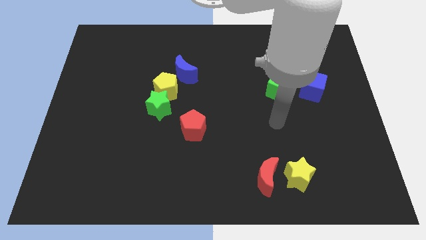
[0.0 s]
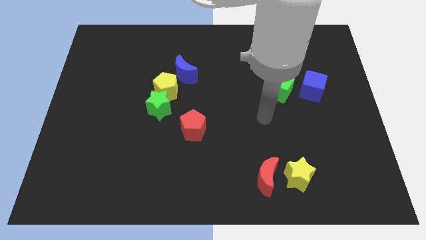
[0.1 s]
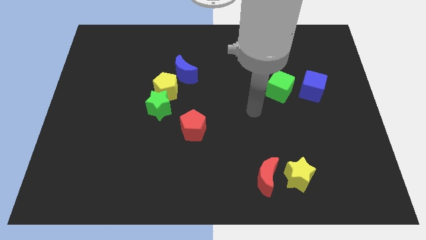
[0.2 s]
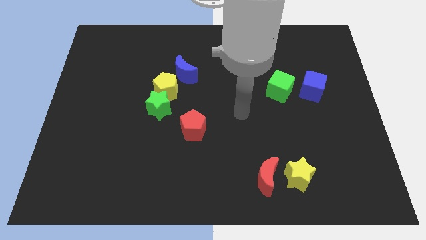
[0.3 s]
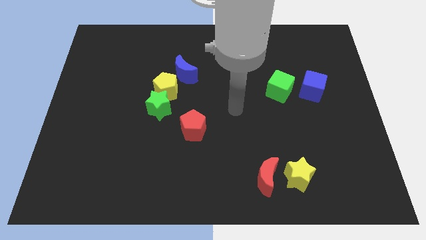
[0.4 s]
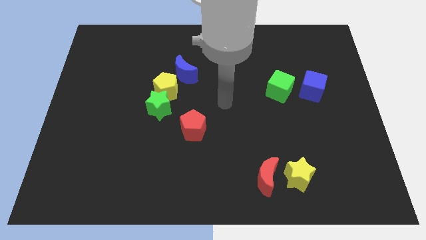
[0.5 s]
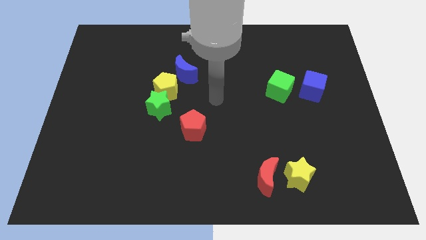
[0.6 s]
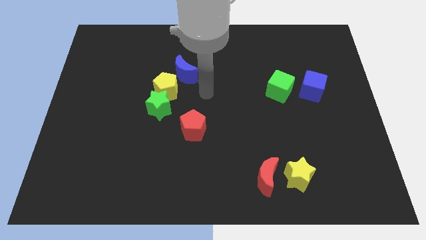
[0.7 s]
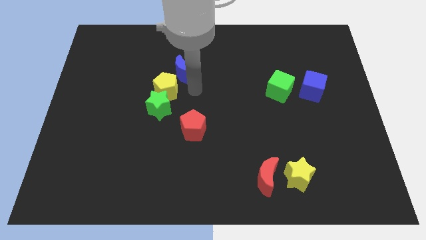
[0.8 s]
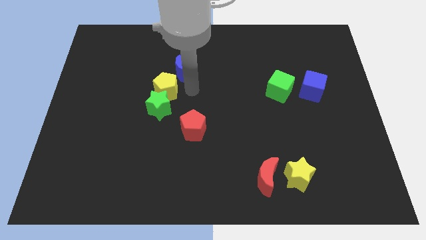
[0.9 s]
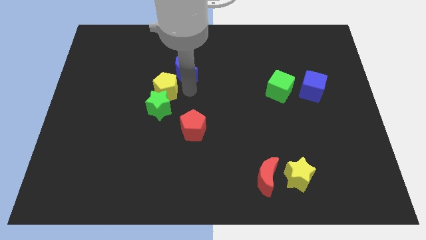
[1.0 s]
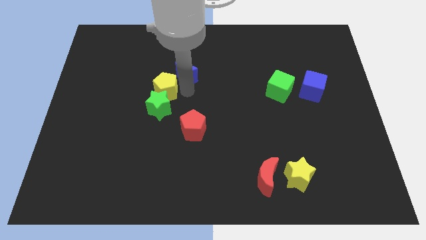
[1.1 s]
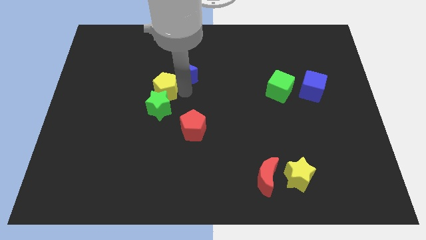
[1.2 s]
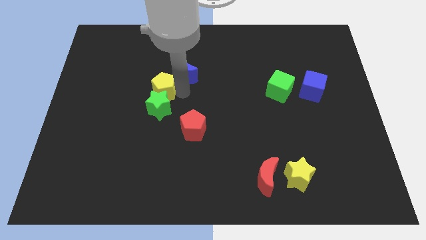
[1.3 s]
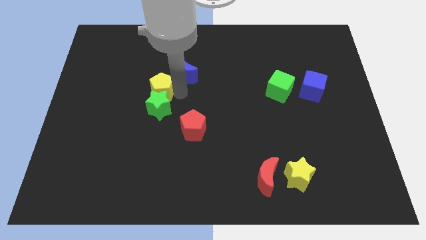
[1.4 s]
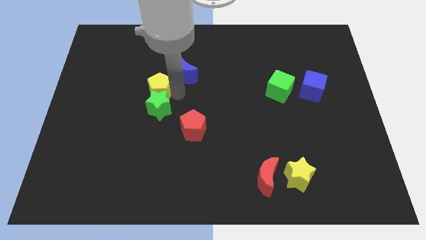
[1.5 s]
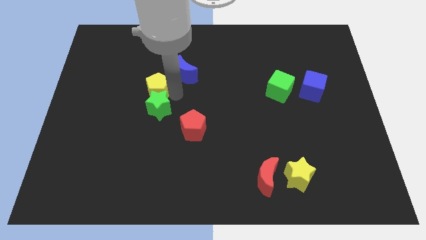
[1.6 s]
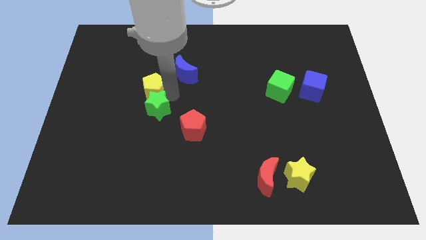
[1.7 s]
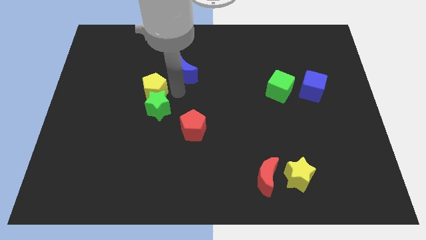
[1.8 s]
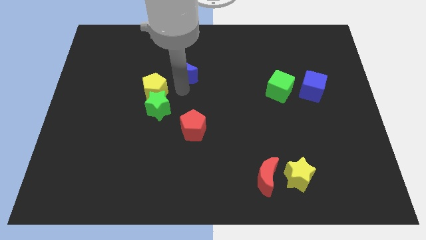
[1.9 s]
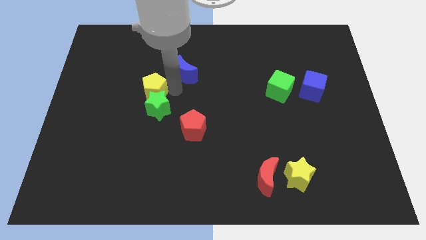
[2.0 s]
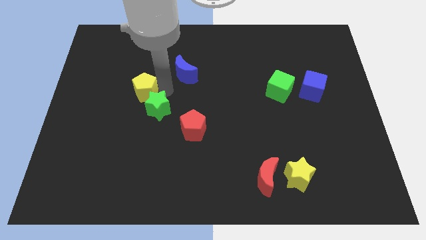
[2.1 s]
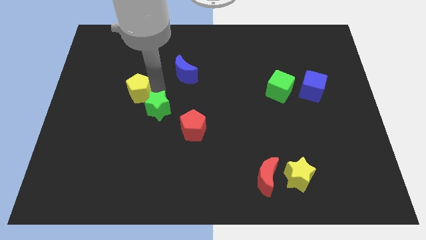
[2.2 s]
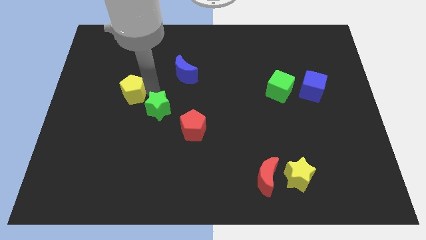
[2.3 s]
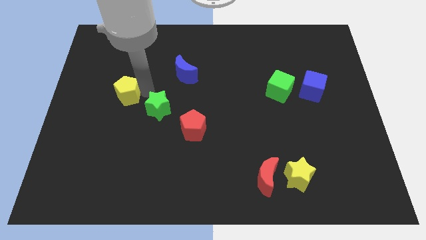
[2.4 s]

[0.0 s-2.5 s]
separate the yellow pentagon from the green star and blue moon

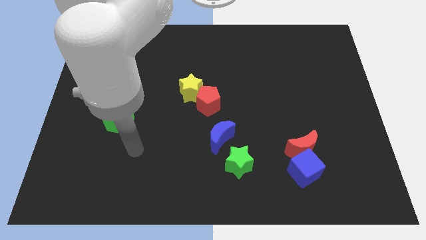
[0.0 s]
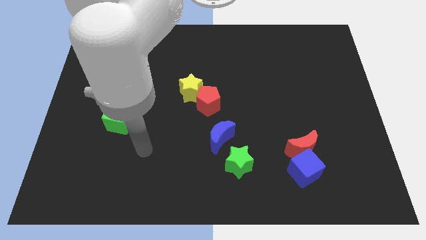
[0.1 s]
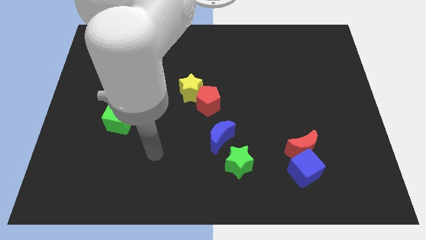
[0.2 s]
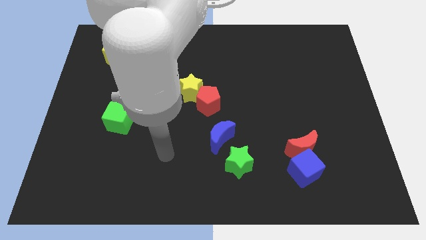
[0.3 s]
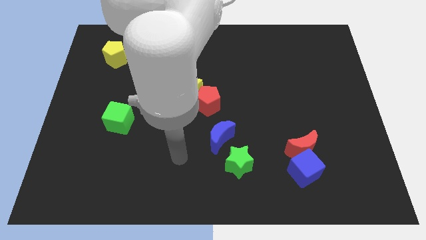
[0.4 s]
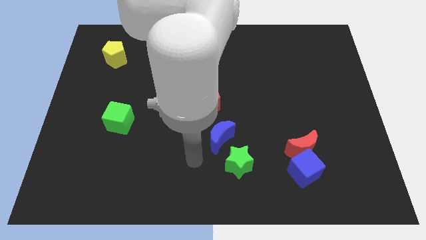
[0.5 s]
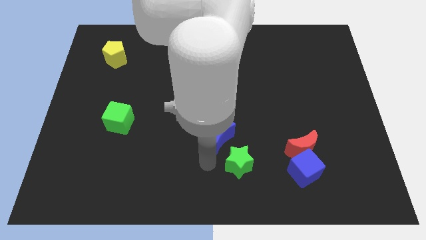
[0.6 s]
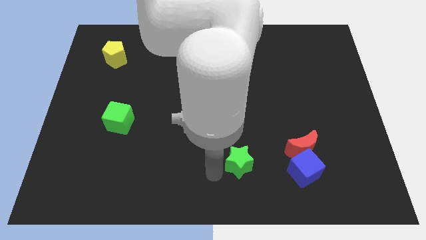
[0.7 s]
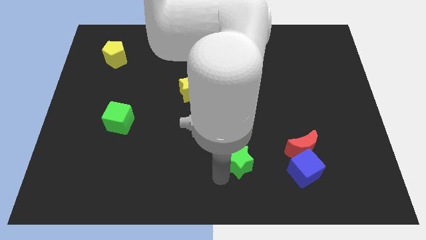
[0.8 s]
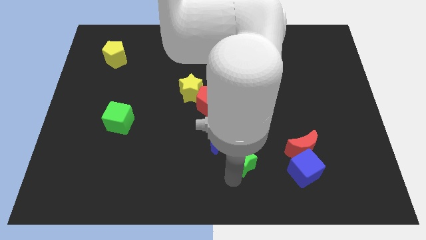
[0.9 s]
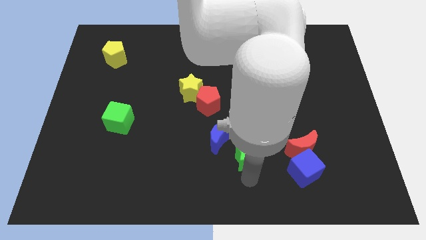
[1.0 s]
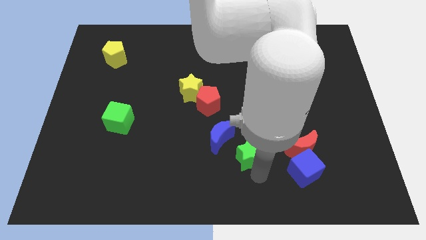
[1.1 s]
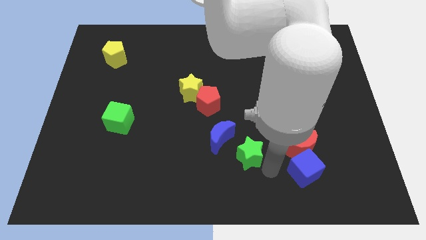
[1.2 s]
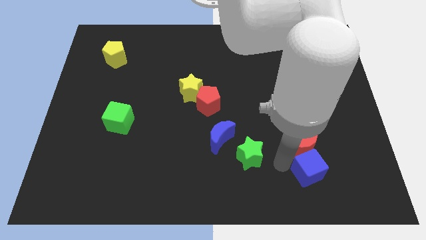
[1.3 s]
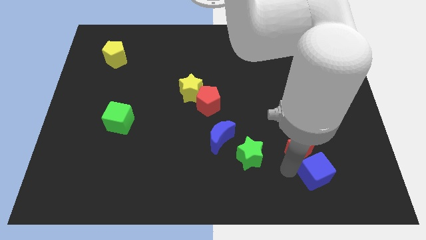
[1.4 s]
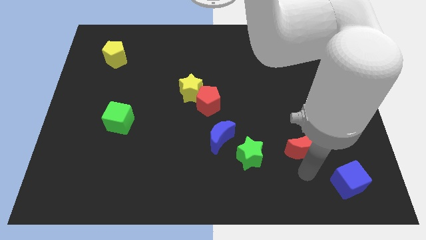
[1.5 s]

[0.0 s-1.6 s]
pull the red moon apart from the blue cube

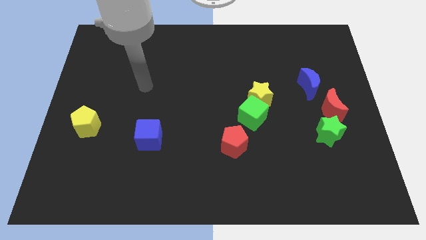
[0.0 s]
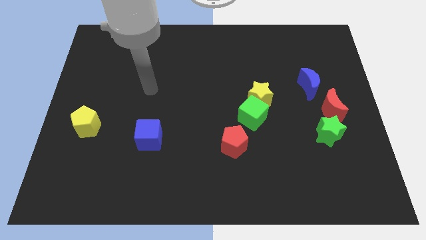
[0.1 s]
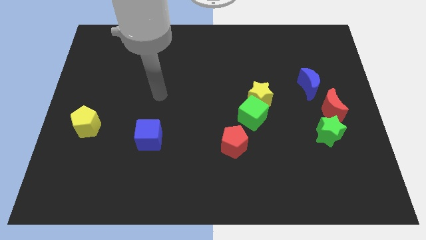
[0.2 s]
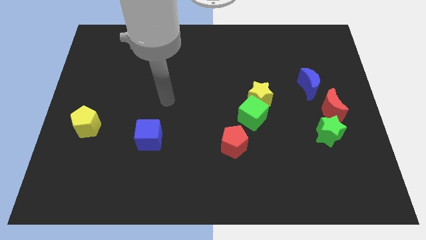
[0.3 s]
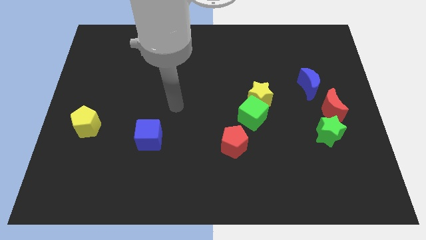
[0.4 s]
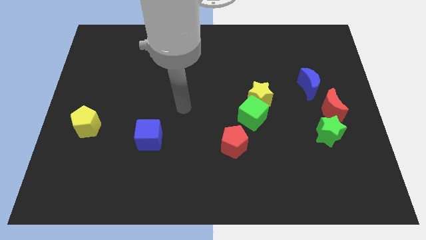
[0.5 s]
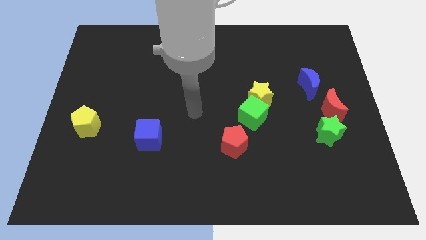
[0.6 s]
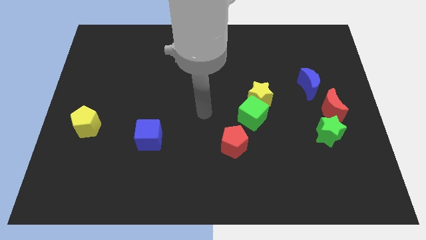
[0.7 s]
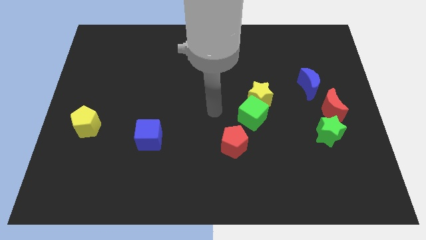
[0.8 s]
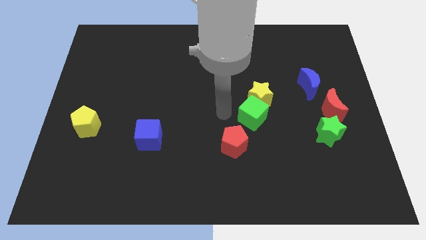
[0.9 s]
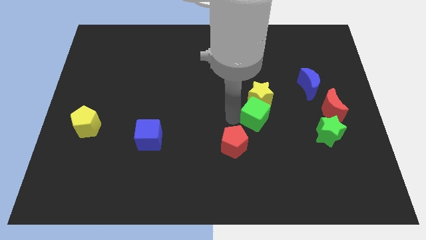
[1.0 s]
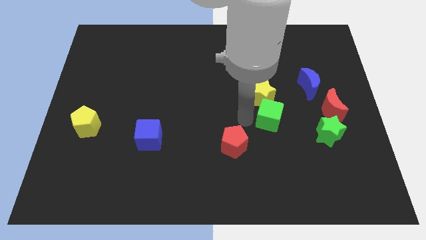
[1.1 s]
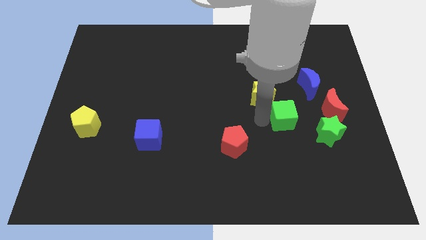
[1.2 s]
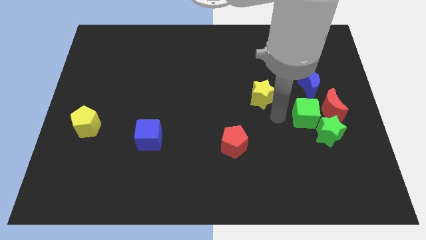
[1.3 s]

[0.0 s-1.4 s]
move the yellow star away from the green cube

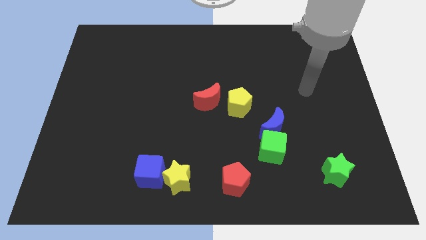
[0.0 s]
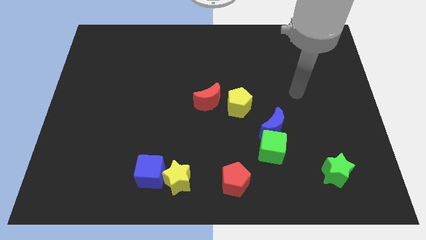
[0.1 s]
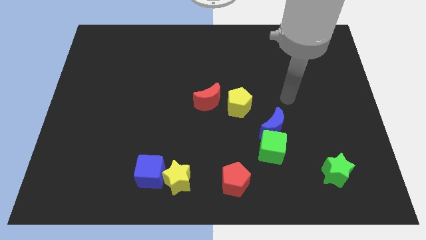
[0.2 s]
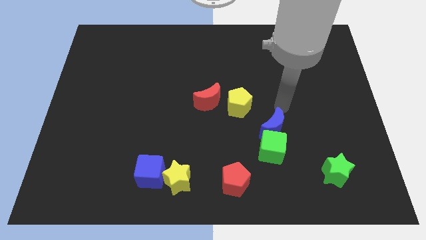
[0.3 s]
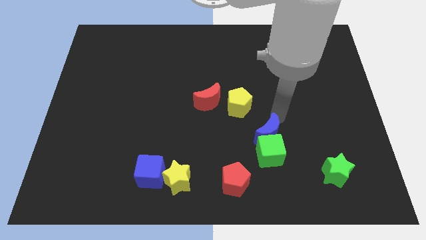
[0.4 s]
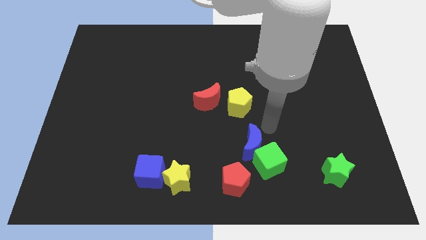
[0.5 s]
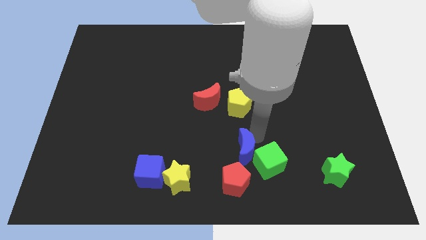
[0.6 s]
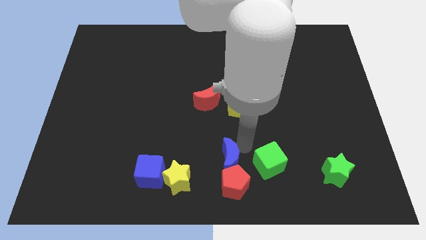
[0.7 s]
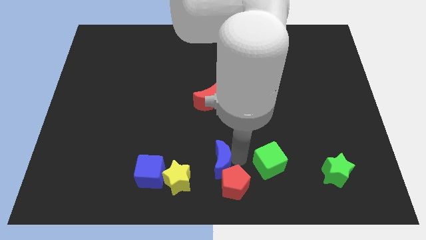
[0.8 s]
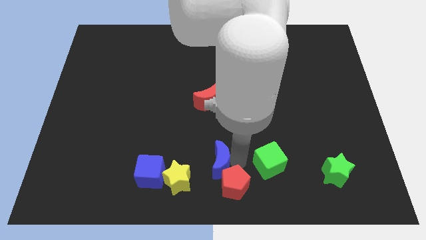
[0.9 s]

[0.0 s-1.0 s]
separate the green cube from the blue moon

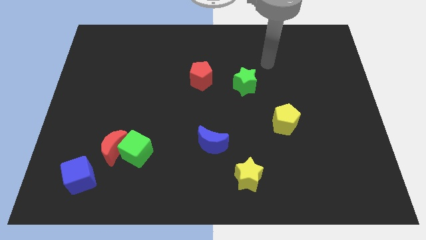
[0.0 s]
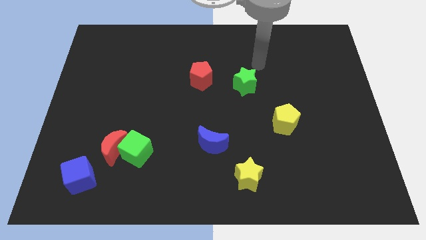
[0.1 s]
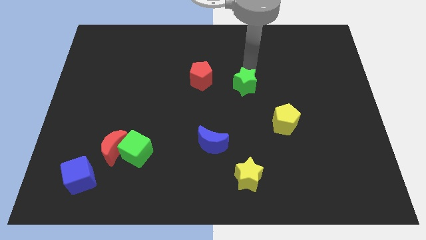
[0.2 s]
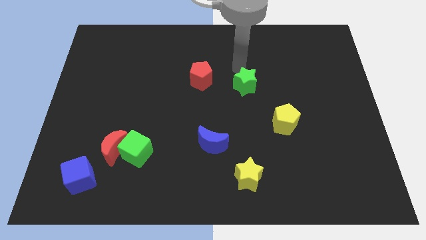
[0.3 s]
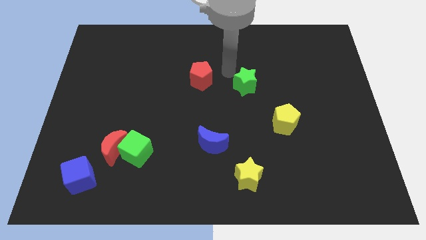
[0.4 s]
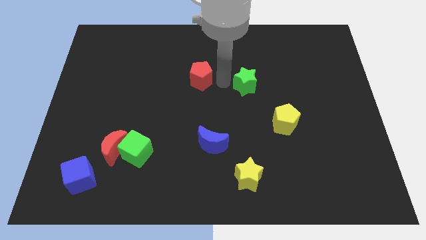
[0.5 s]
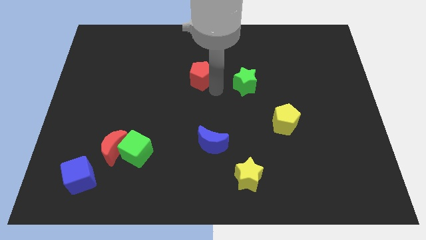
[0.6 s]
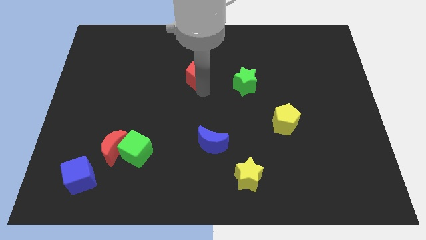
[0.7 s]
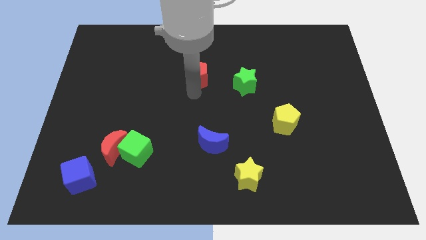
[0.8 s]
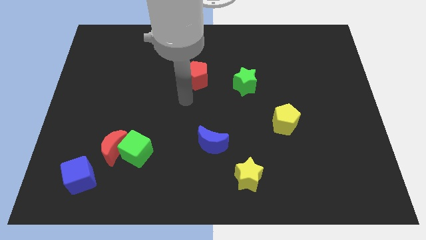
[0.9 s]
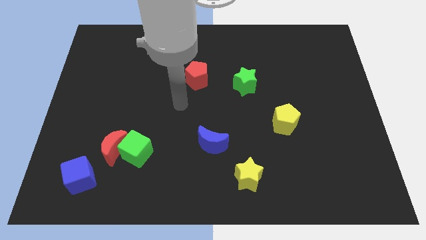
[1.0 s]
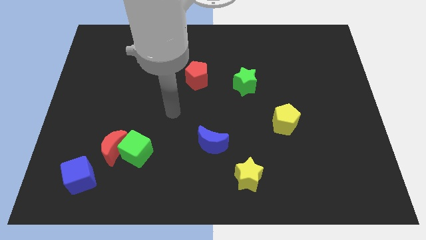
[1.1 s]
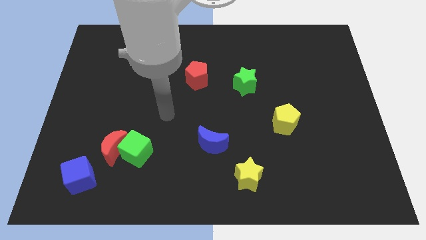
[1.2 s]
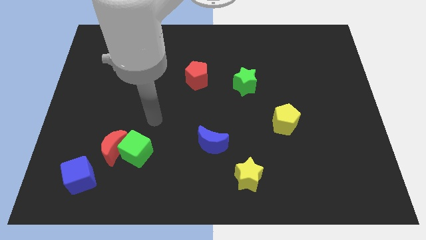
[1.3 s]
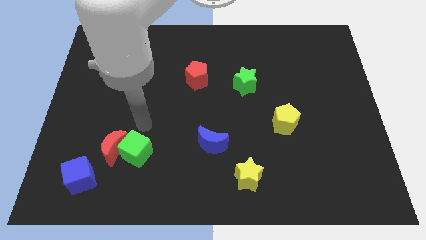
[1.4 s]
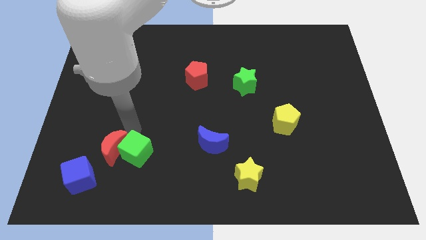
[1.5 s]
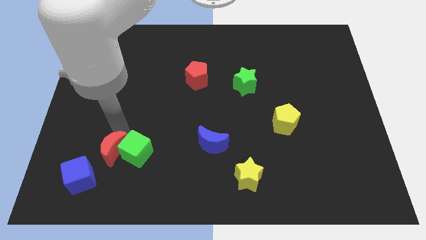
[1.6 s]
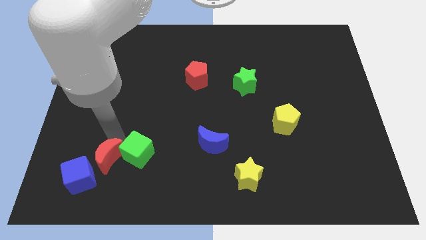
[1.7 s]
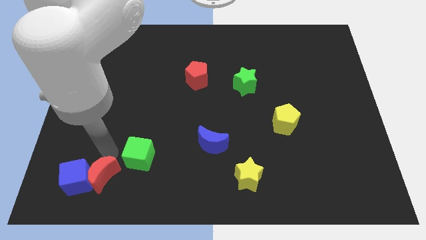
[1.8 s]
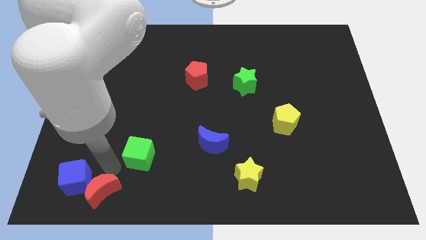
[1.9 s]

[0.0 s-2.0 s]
separate the green cube from the red moon

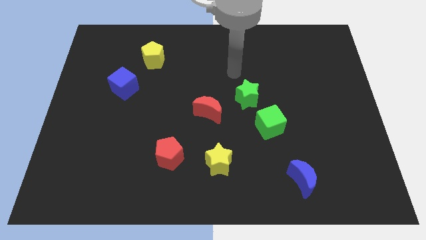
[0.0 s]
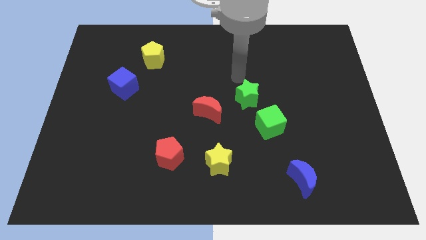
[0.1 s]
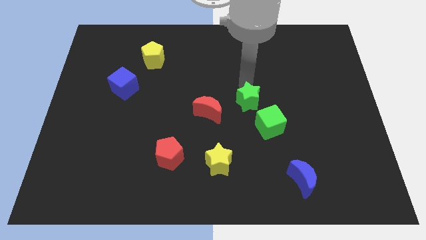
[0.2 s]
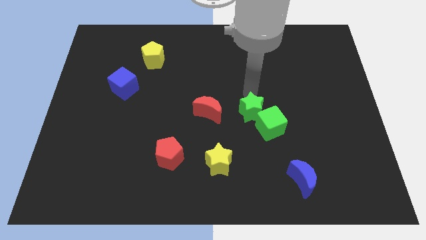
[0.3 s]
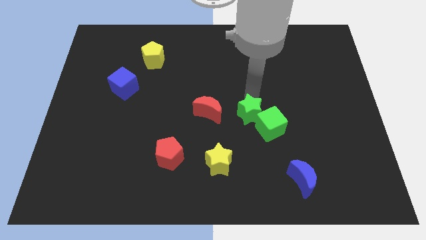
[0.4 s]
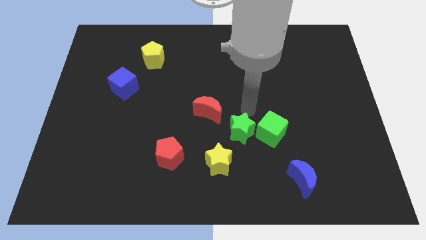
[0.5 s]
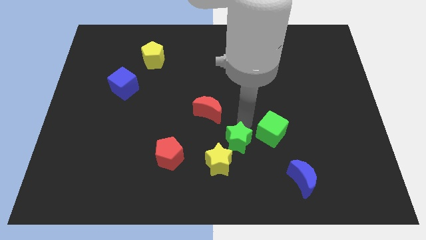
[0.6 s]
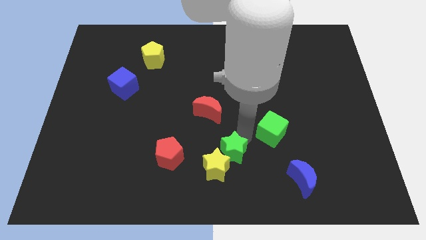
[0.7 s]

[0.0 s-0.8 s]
pull the green cube apart from the green star
